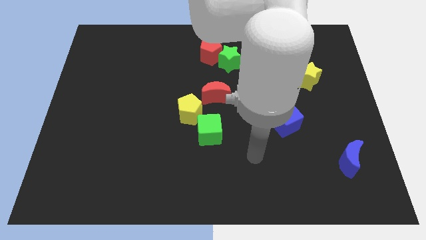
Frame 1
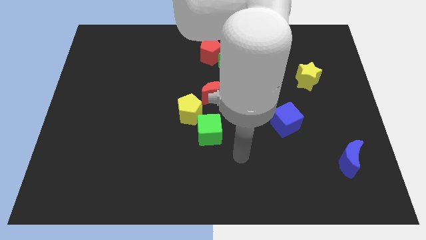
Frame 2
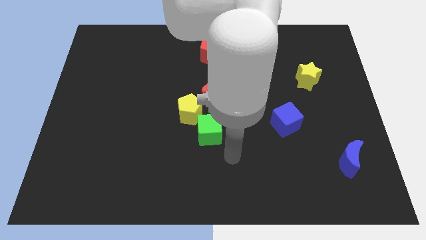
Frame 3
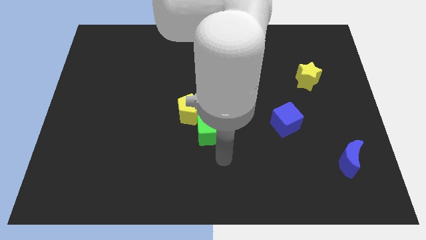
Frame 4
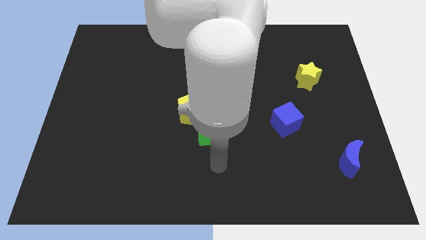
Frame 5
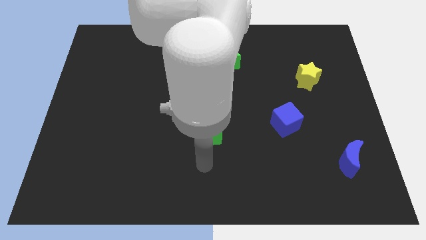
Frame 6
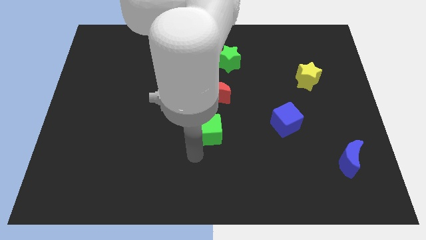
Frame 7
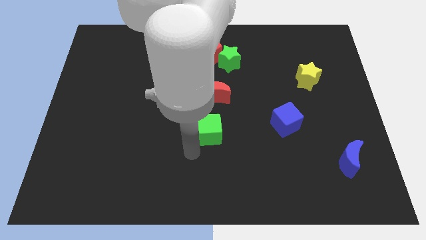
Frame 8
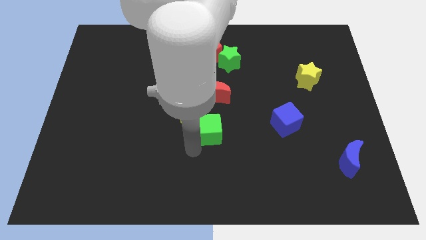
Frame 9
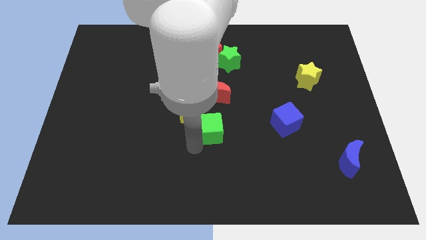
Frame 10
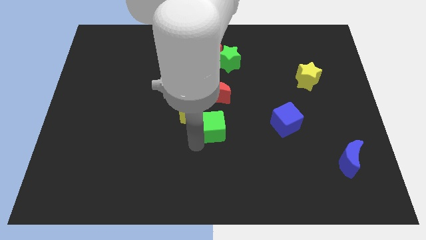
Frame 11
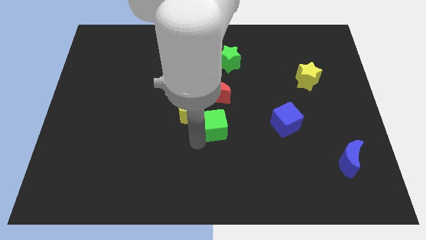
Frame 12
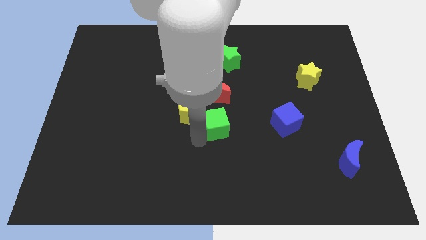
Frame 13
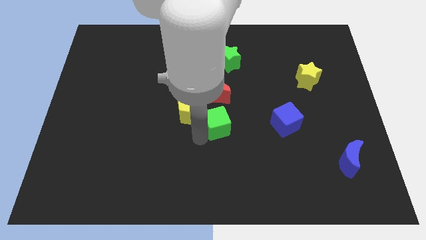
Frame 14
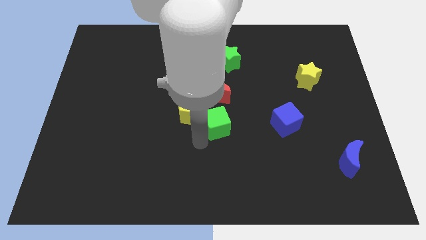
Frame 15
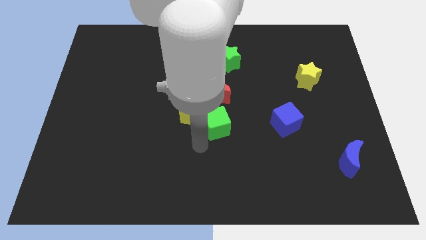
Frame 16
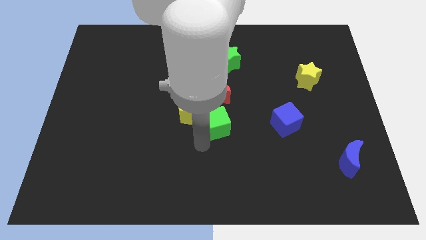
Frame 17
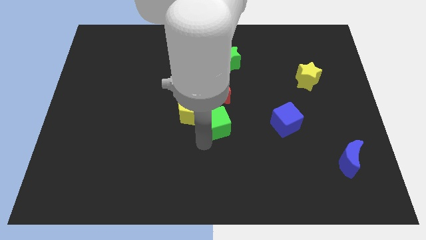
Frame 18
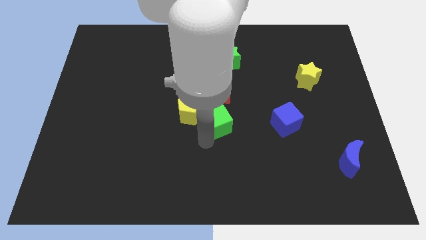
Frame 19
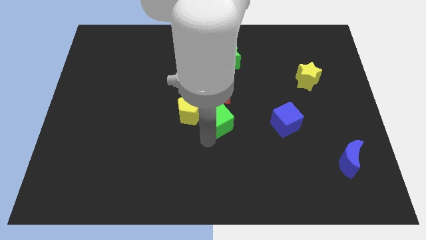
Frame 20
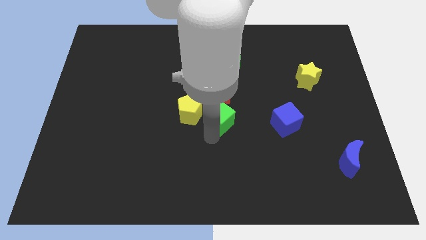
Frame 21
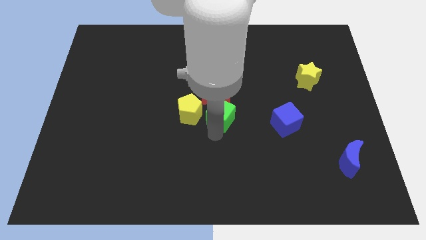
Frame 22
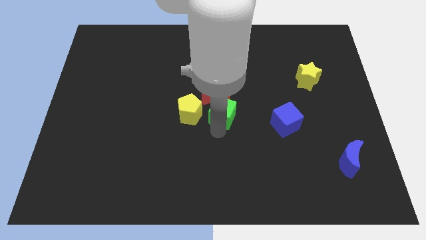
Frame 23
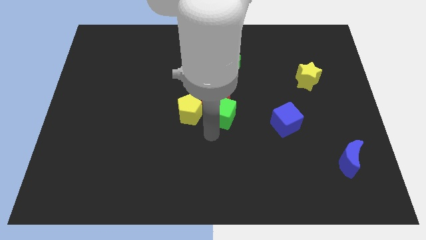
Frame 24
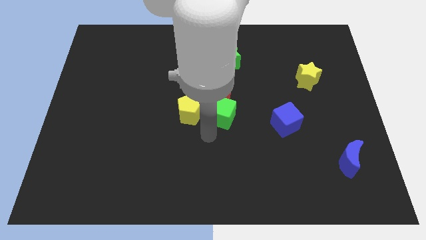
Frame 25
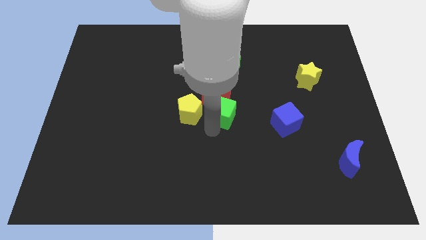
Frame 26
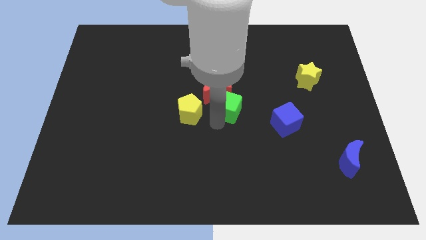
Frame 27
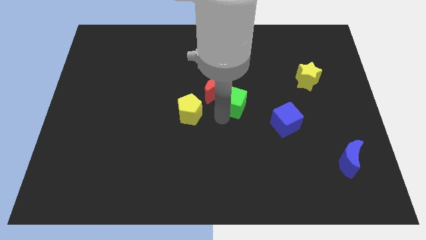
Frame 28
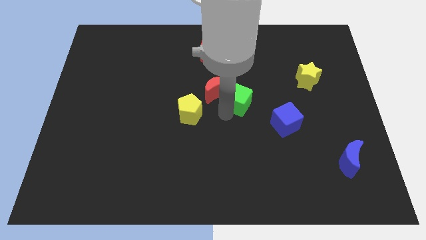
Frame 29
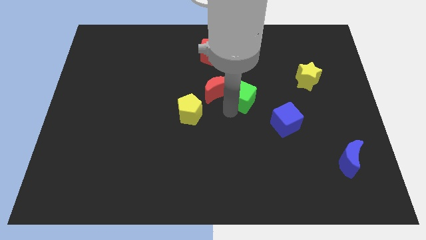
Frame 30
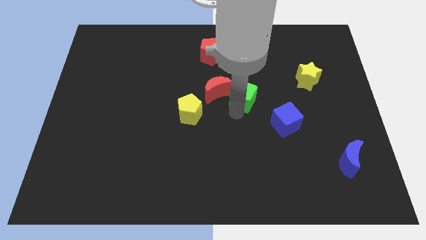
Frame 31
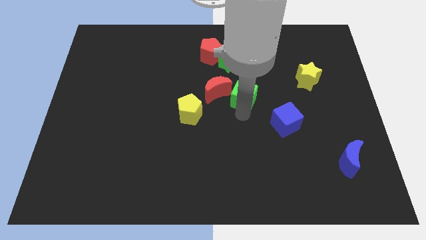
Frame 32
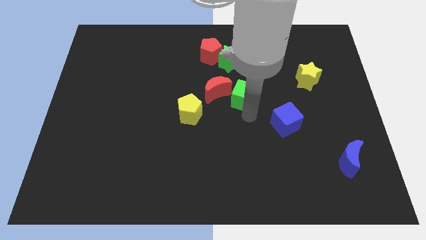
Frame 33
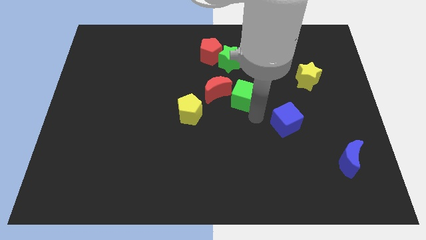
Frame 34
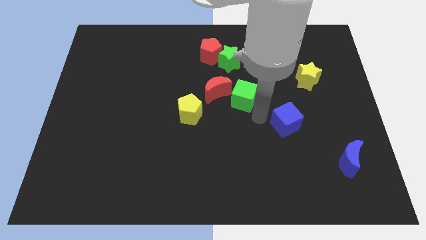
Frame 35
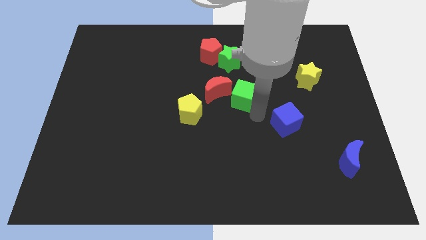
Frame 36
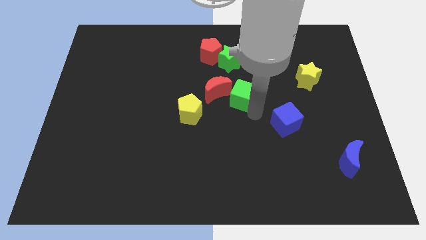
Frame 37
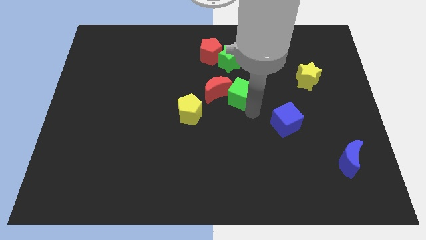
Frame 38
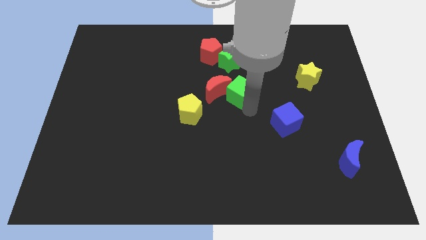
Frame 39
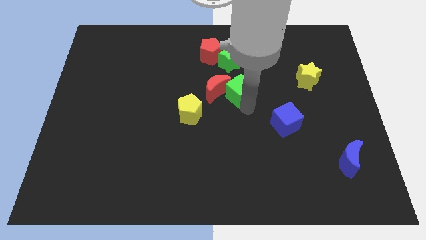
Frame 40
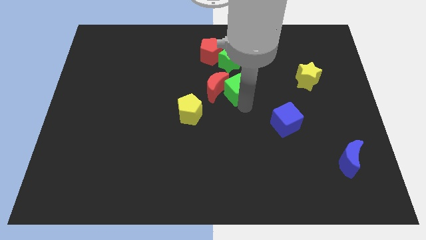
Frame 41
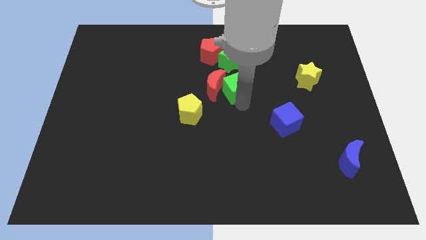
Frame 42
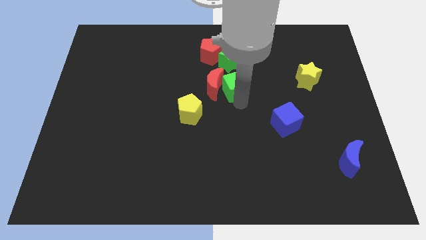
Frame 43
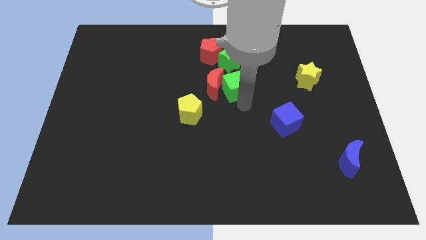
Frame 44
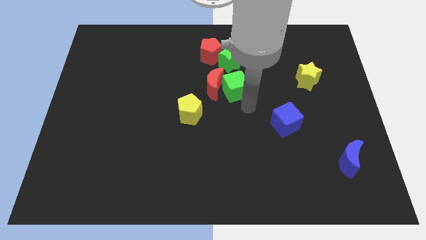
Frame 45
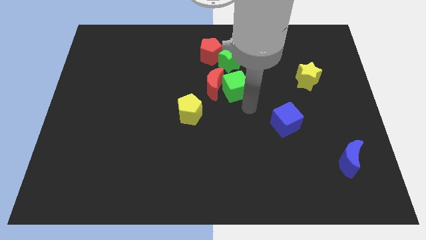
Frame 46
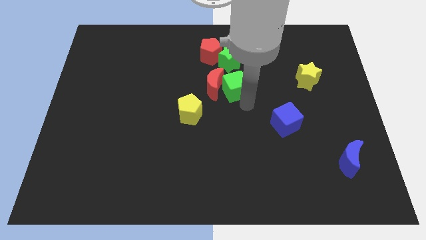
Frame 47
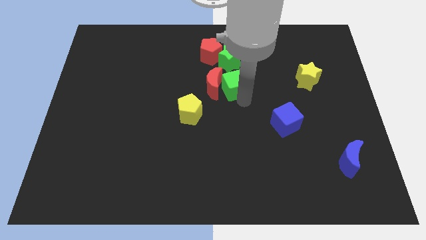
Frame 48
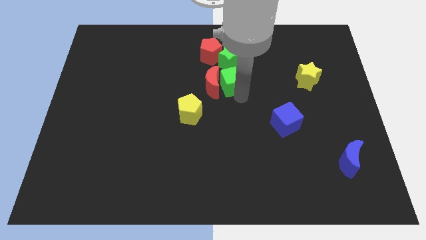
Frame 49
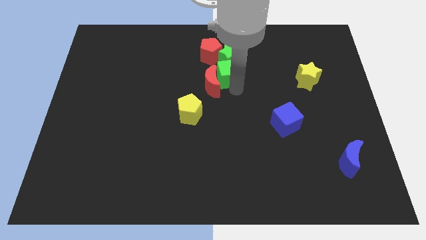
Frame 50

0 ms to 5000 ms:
push the green cube to the top of the red moon

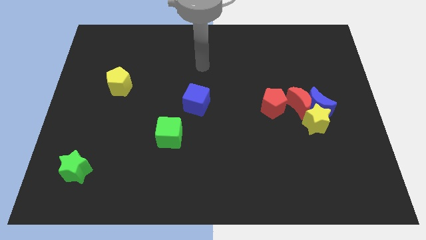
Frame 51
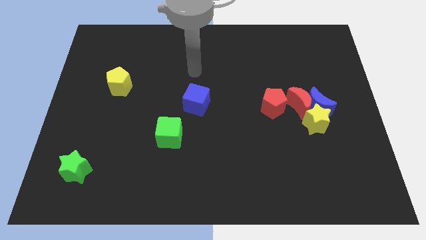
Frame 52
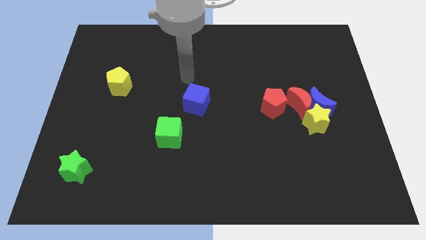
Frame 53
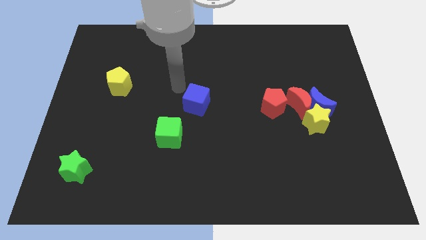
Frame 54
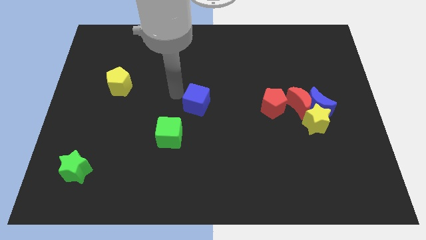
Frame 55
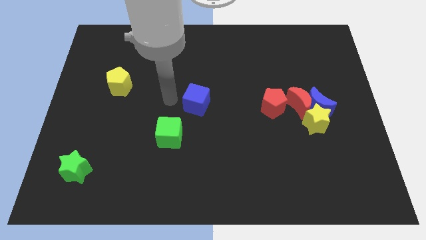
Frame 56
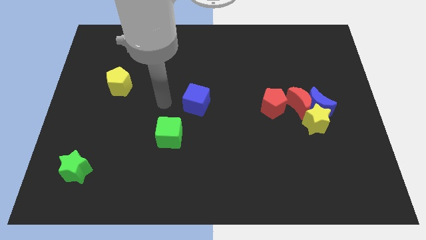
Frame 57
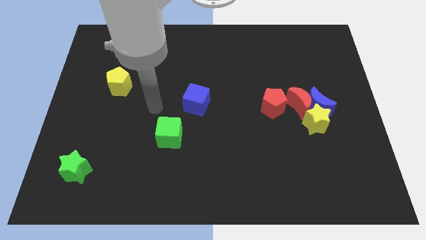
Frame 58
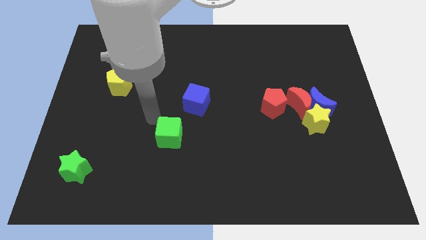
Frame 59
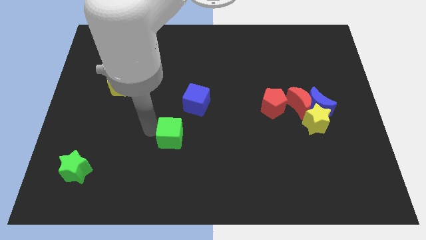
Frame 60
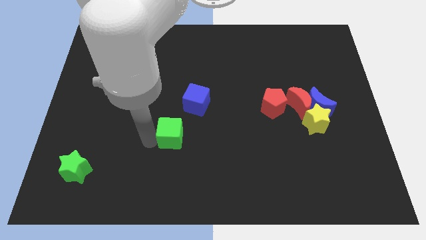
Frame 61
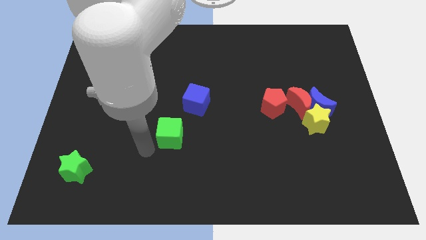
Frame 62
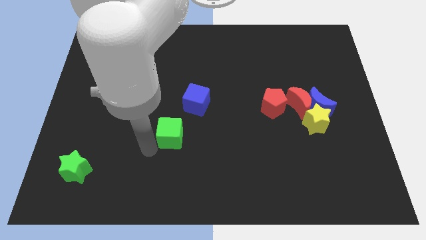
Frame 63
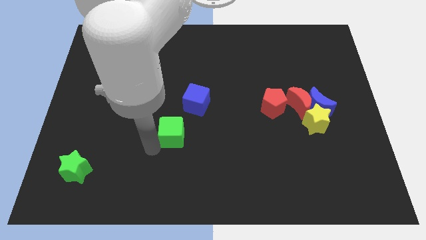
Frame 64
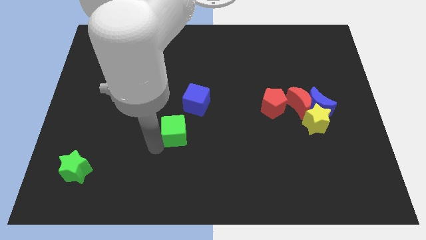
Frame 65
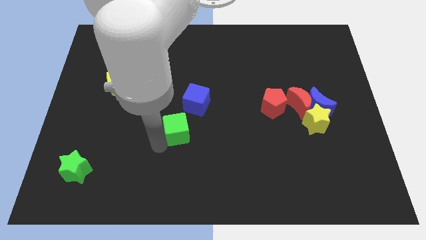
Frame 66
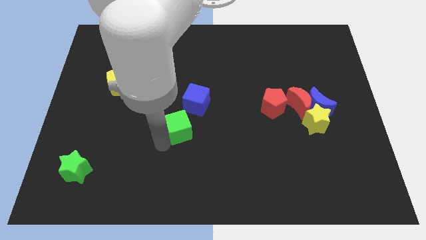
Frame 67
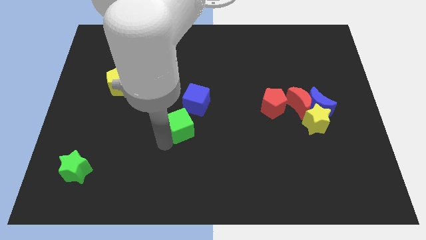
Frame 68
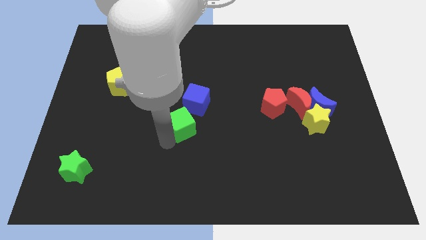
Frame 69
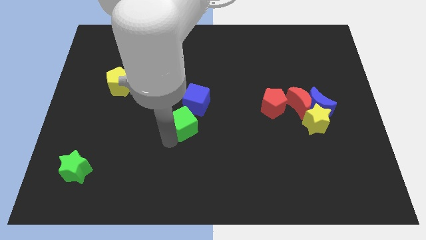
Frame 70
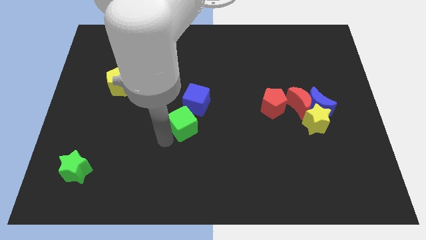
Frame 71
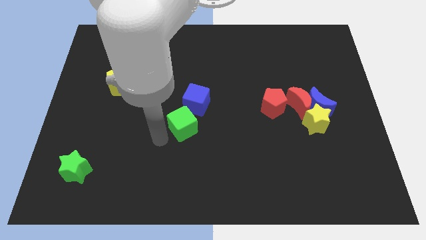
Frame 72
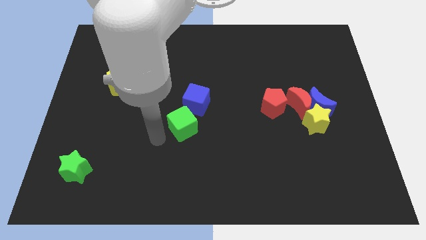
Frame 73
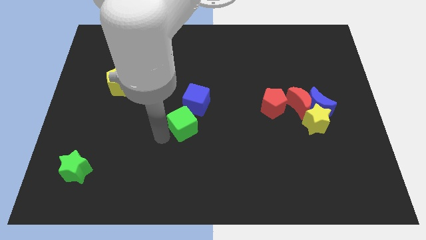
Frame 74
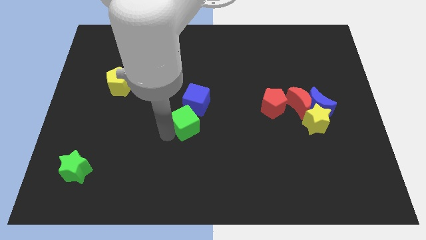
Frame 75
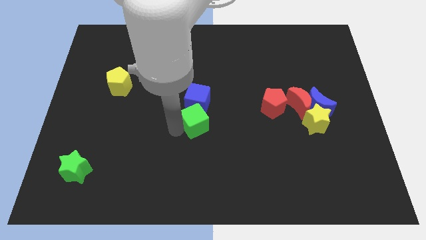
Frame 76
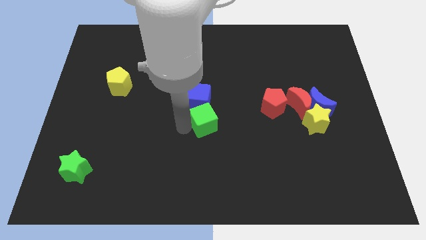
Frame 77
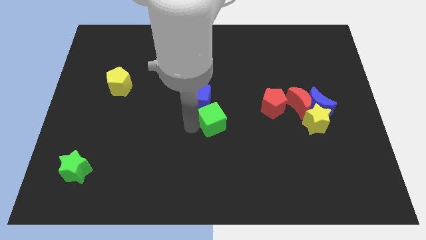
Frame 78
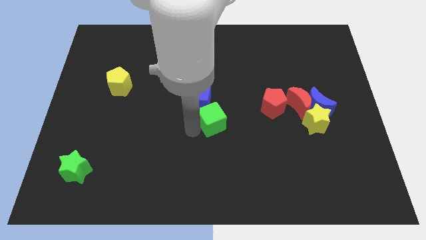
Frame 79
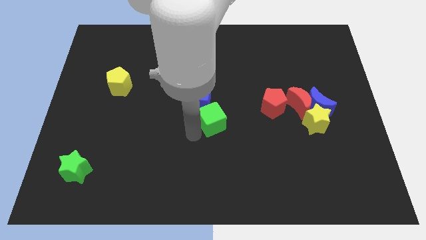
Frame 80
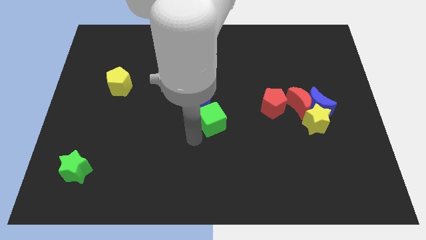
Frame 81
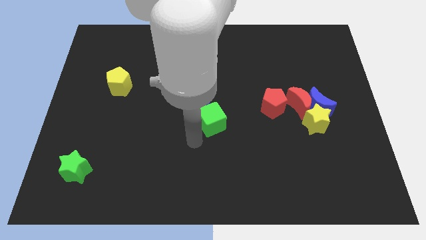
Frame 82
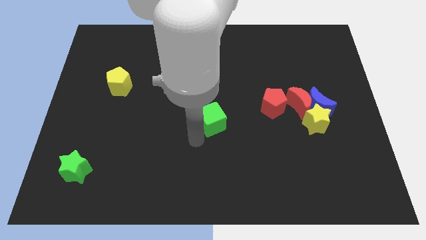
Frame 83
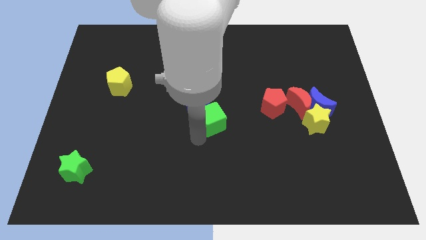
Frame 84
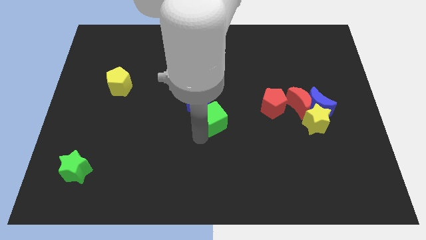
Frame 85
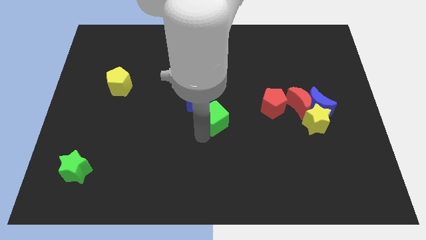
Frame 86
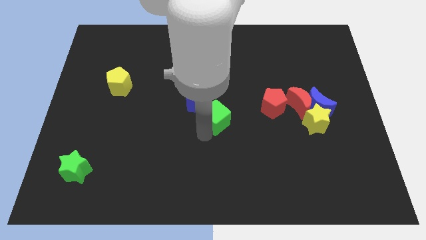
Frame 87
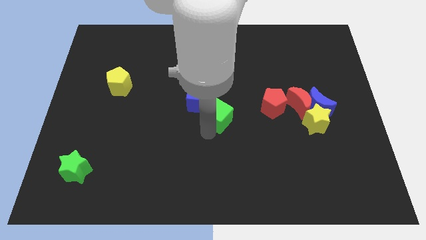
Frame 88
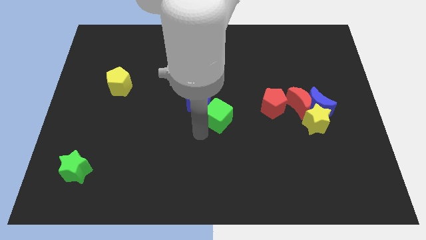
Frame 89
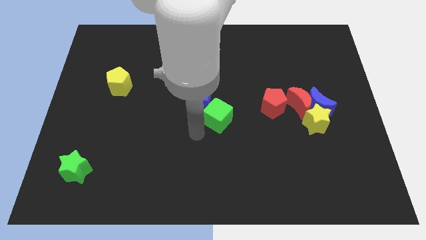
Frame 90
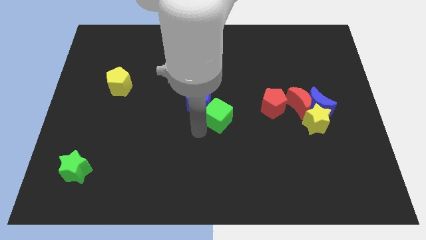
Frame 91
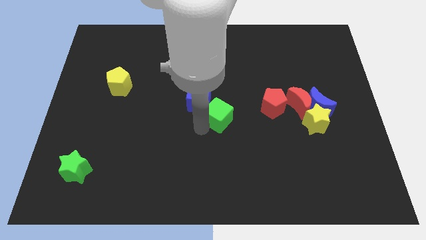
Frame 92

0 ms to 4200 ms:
put the green cube to the right side of the blue cube
